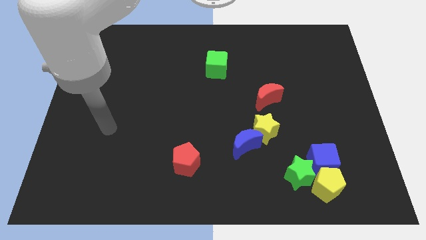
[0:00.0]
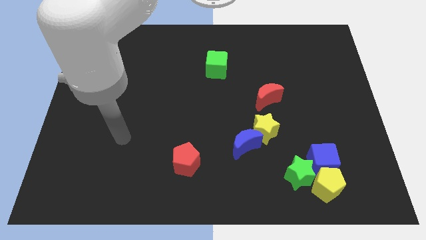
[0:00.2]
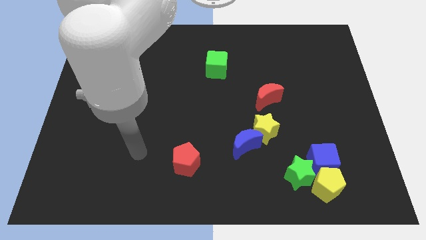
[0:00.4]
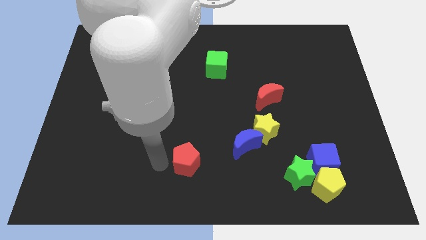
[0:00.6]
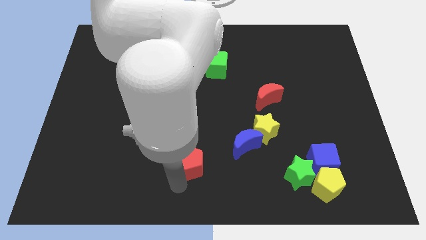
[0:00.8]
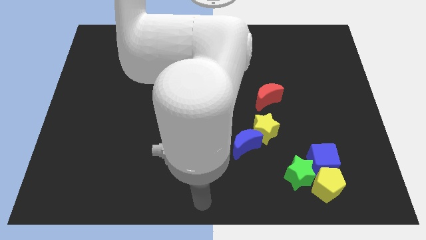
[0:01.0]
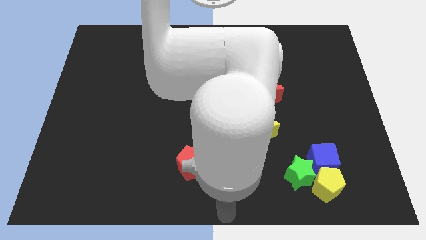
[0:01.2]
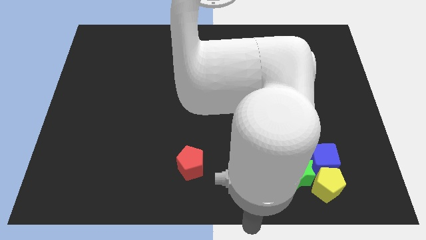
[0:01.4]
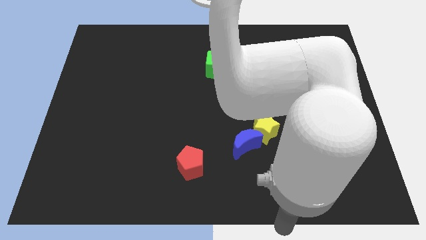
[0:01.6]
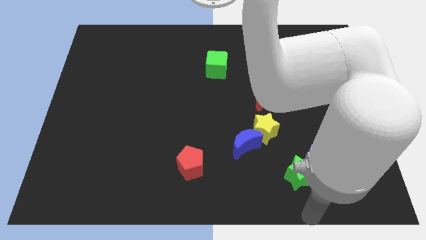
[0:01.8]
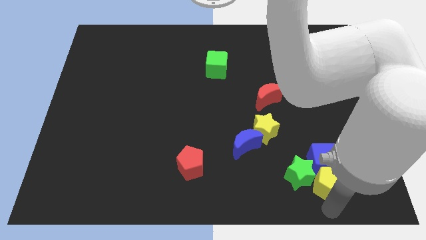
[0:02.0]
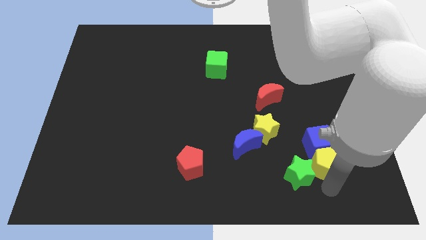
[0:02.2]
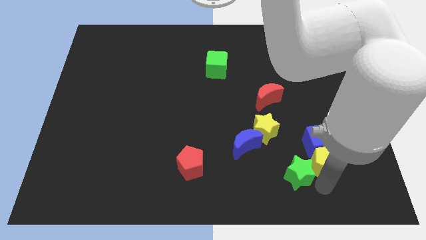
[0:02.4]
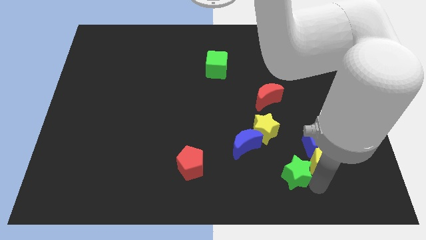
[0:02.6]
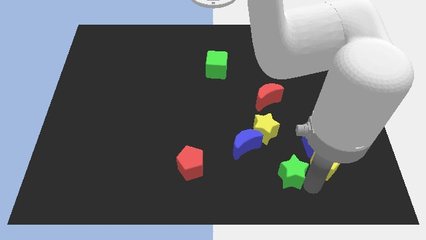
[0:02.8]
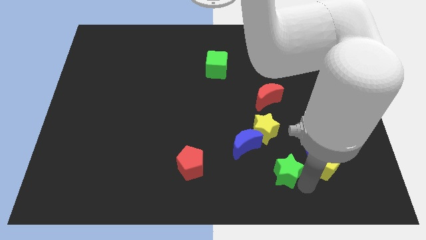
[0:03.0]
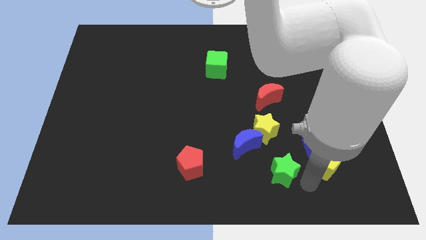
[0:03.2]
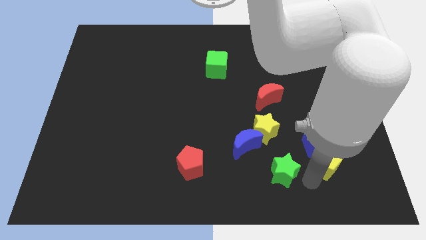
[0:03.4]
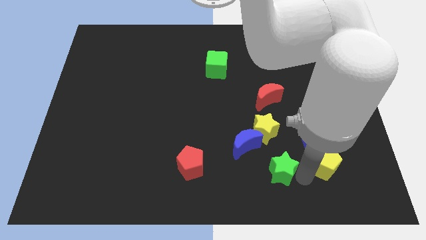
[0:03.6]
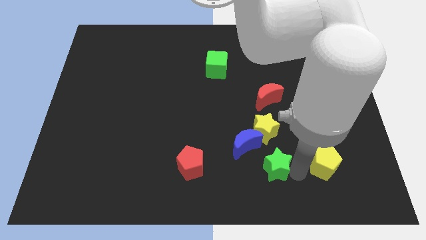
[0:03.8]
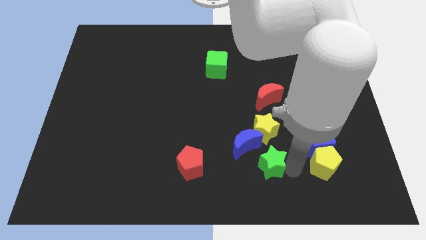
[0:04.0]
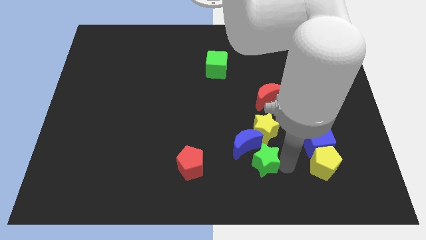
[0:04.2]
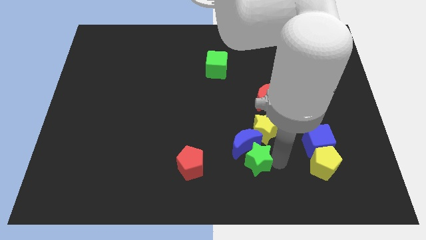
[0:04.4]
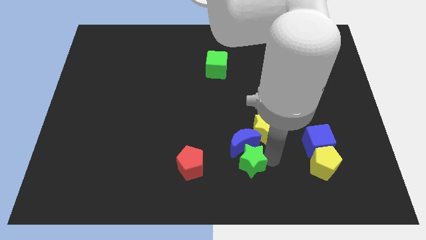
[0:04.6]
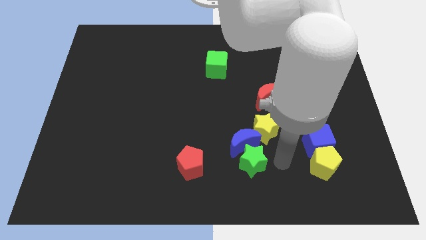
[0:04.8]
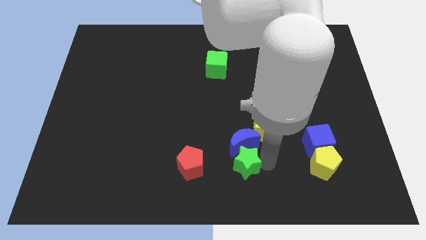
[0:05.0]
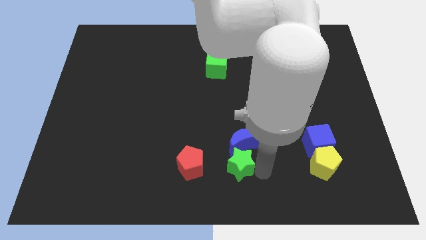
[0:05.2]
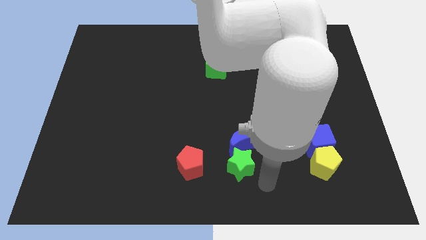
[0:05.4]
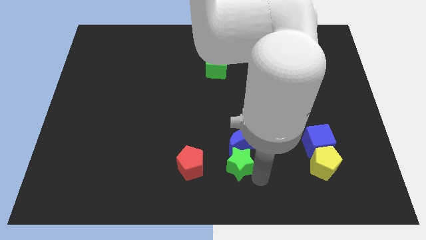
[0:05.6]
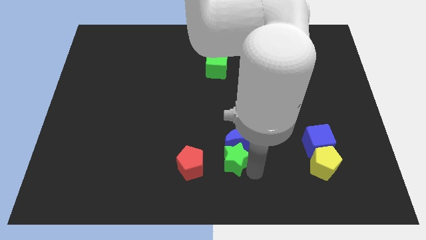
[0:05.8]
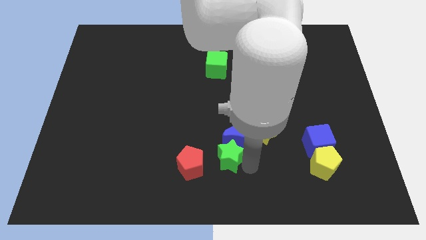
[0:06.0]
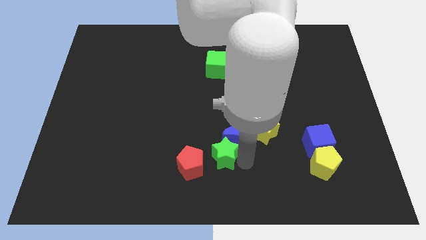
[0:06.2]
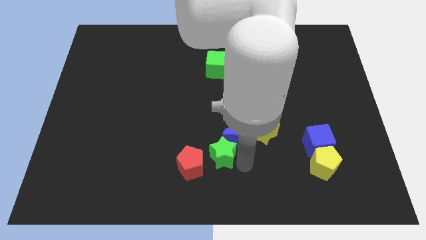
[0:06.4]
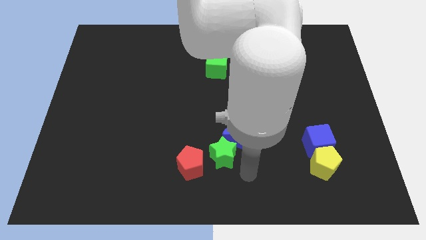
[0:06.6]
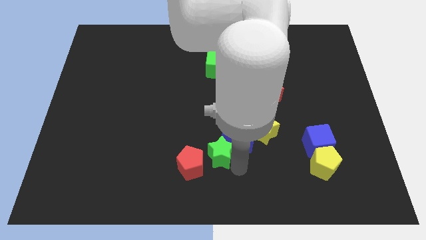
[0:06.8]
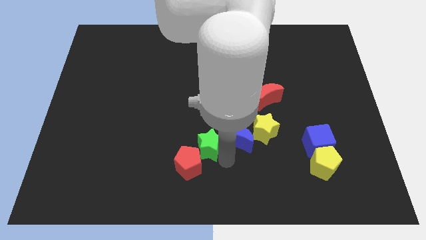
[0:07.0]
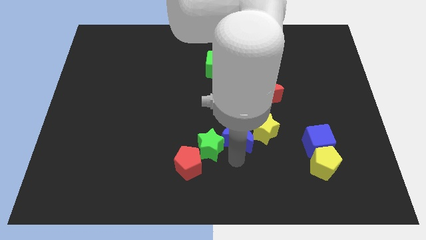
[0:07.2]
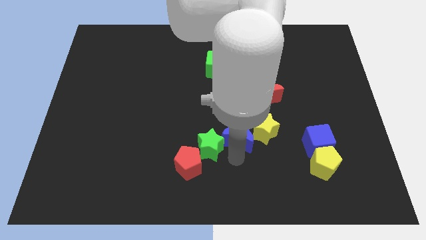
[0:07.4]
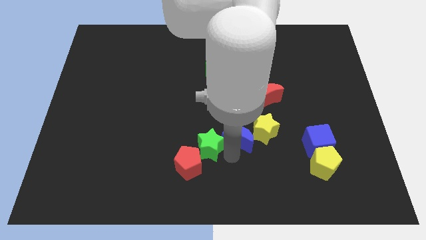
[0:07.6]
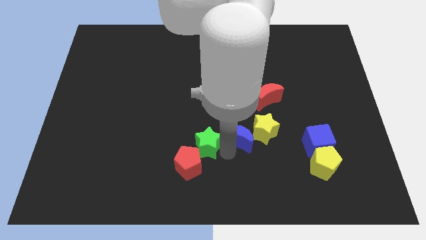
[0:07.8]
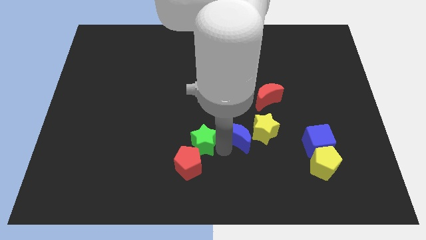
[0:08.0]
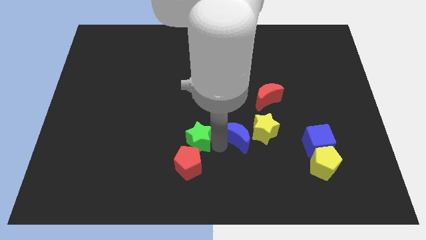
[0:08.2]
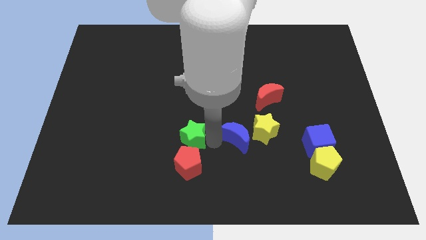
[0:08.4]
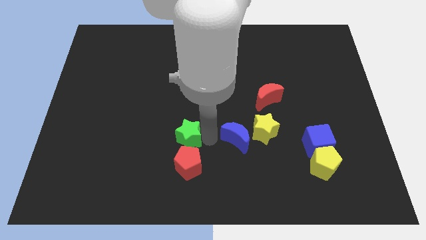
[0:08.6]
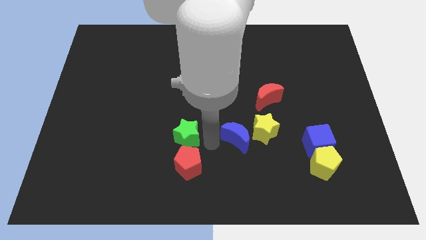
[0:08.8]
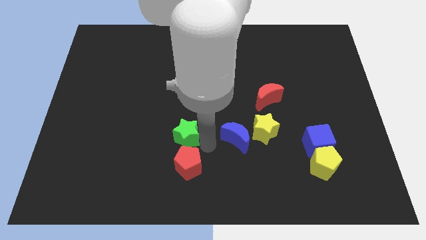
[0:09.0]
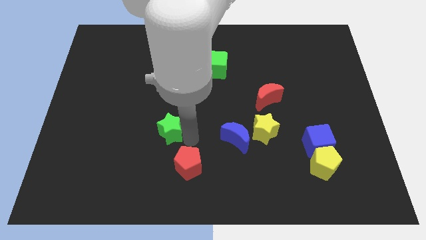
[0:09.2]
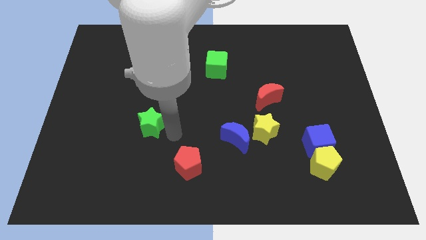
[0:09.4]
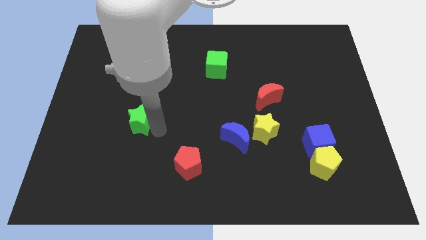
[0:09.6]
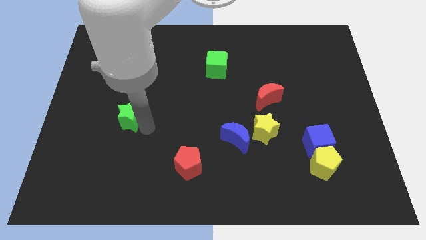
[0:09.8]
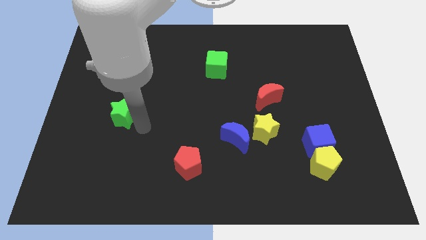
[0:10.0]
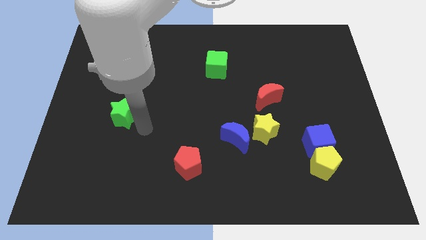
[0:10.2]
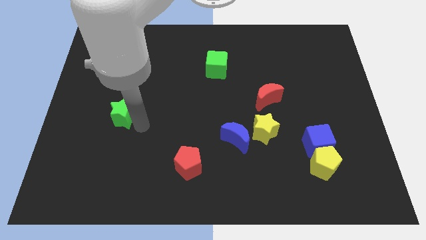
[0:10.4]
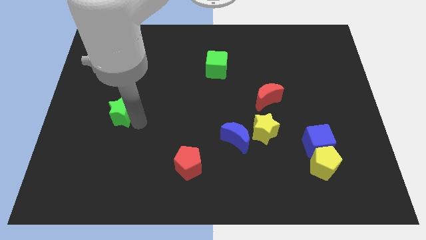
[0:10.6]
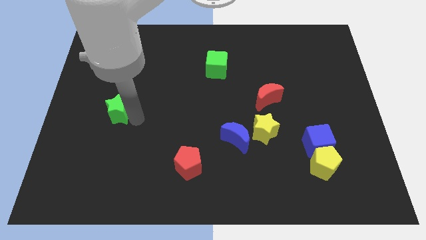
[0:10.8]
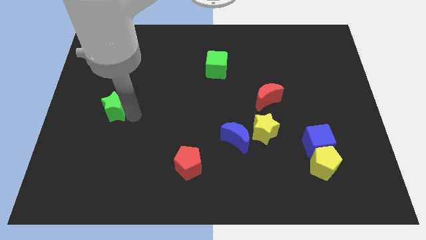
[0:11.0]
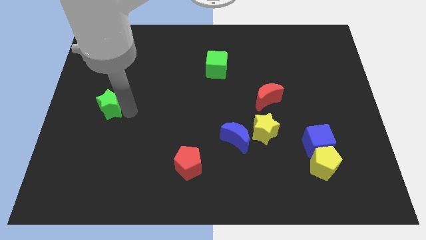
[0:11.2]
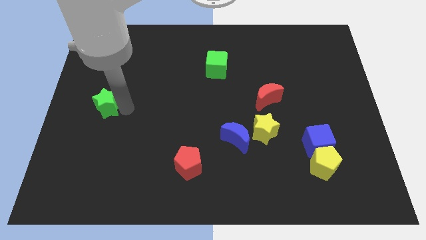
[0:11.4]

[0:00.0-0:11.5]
slide the green star to the left side

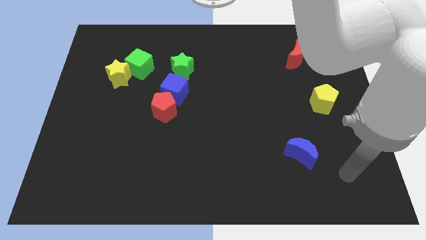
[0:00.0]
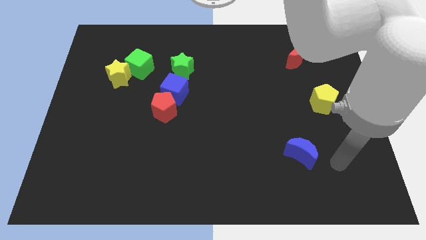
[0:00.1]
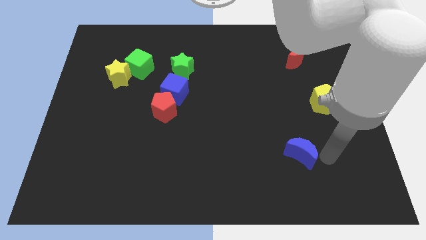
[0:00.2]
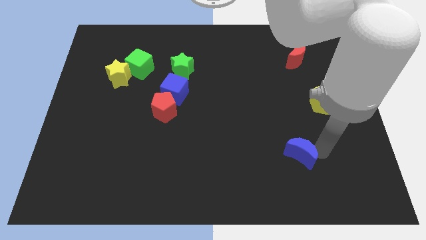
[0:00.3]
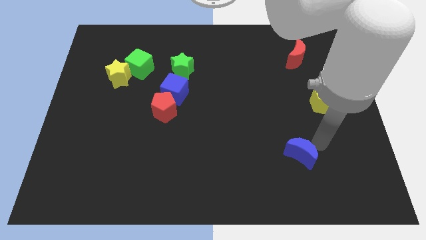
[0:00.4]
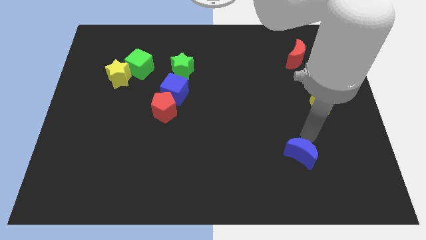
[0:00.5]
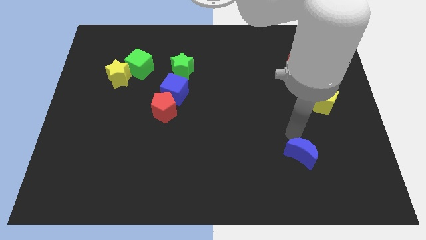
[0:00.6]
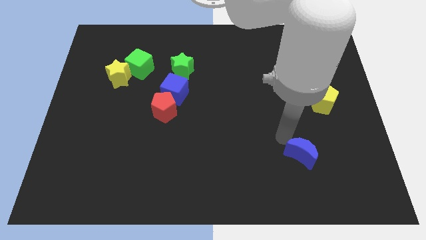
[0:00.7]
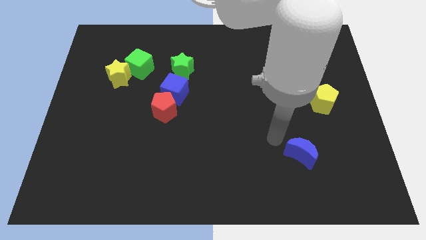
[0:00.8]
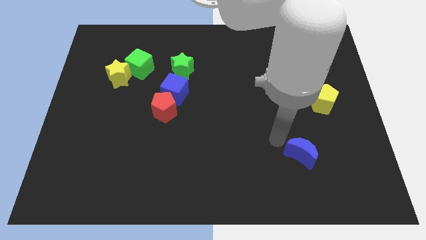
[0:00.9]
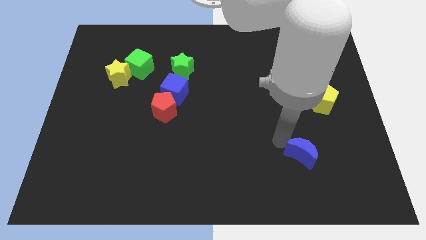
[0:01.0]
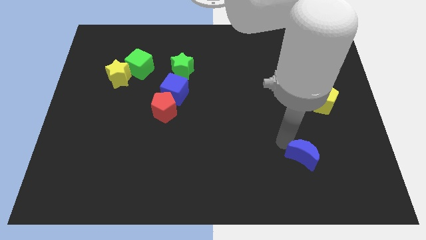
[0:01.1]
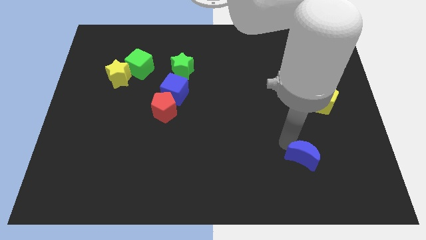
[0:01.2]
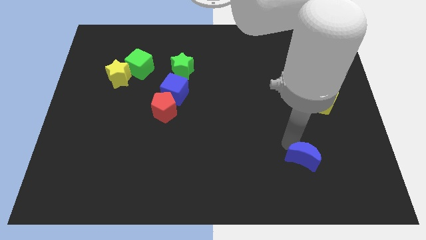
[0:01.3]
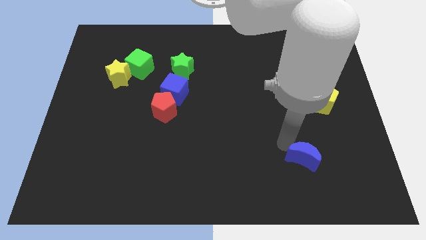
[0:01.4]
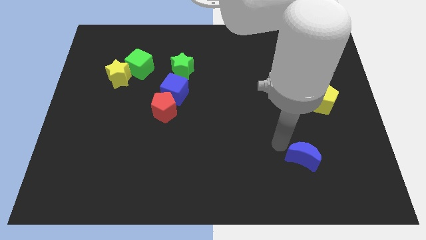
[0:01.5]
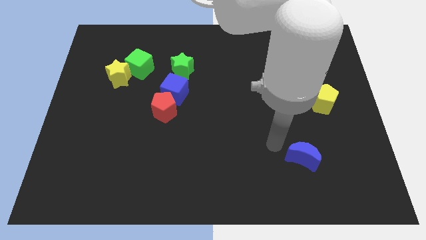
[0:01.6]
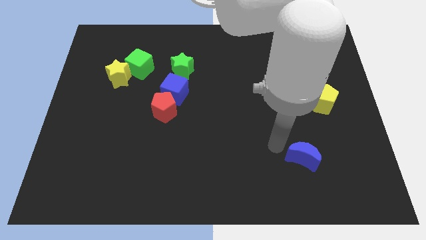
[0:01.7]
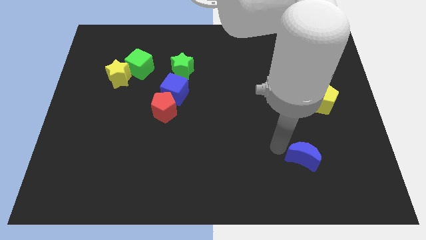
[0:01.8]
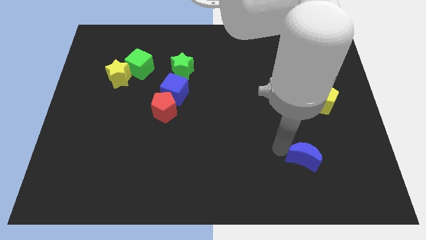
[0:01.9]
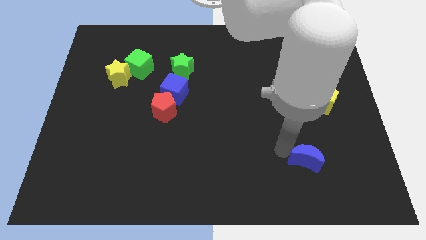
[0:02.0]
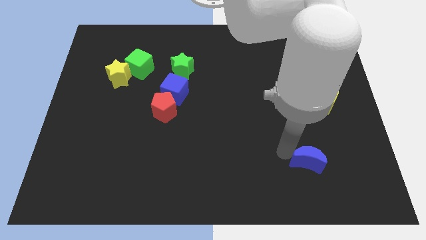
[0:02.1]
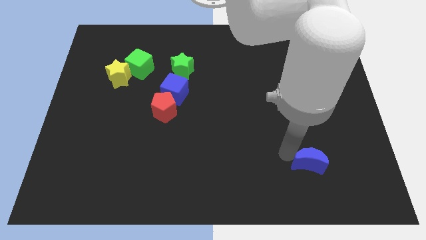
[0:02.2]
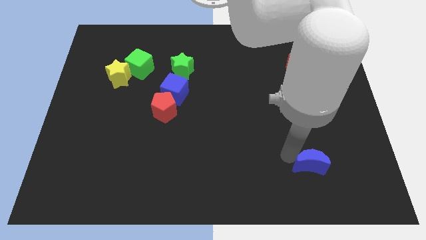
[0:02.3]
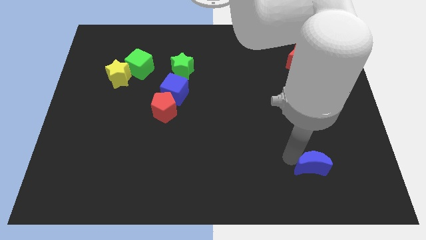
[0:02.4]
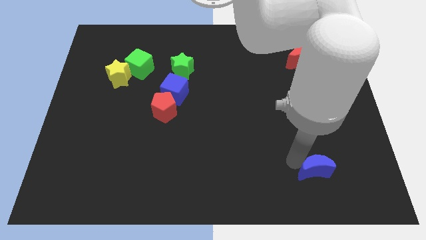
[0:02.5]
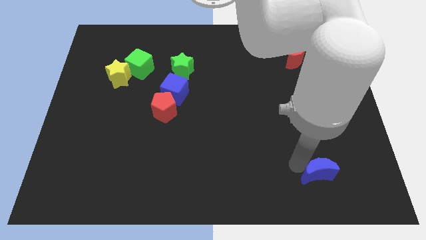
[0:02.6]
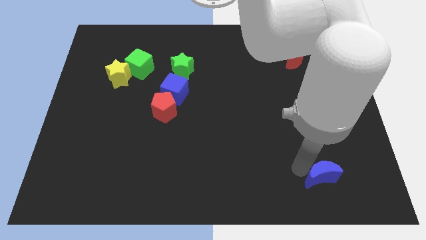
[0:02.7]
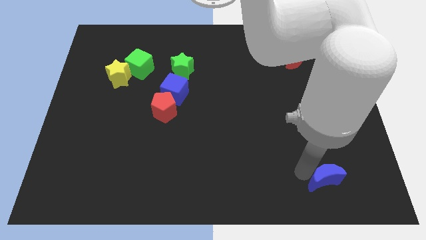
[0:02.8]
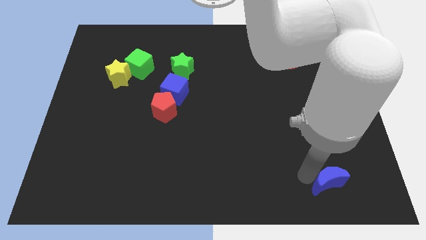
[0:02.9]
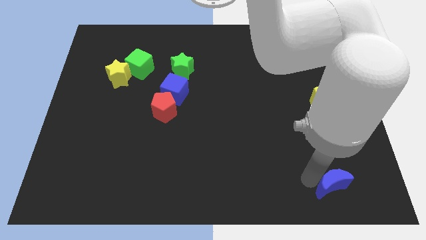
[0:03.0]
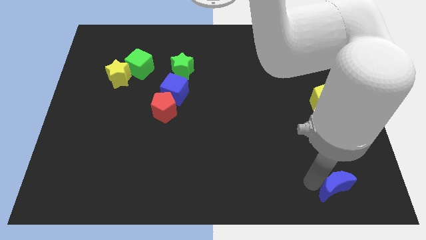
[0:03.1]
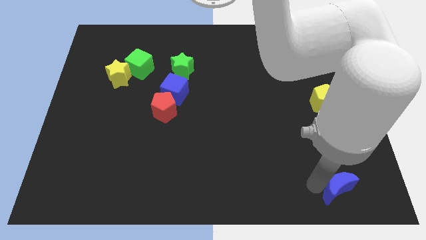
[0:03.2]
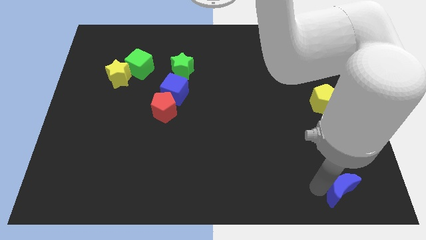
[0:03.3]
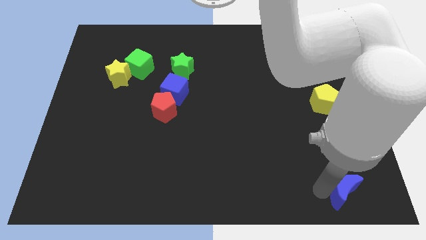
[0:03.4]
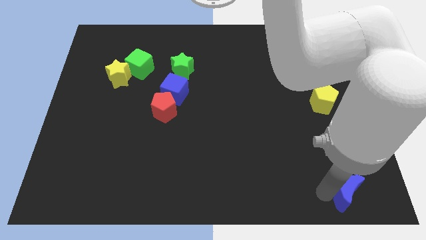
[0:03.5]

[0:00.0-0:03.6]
slide the blue moon to the bottom right corner
